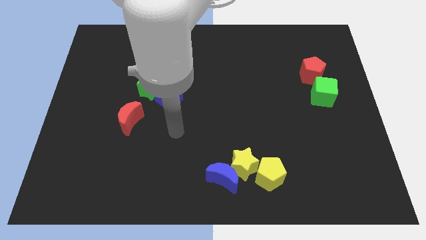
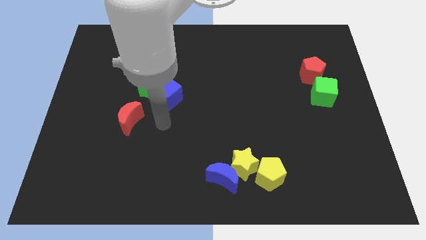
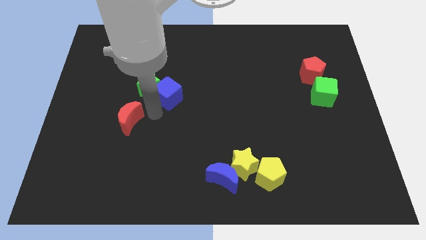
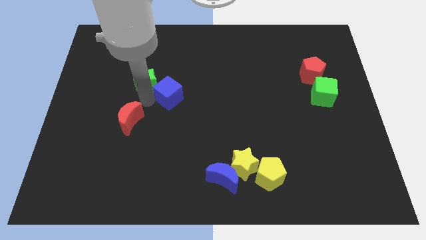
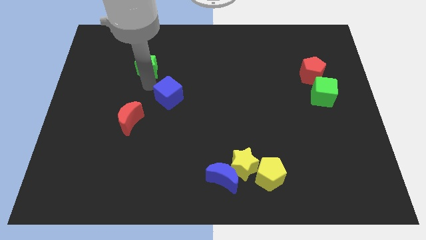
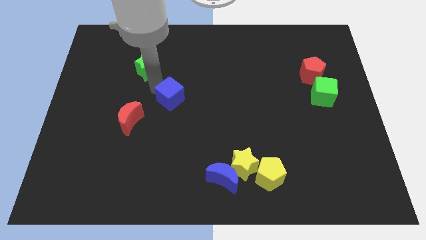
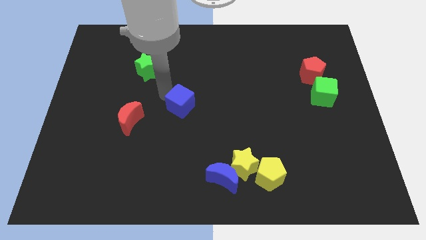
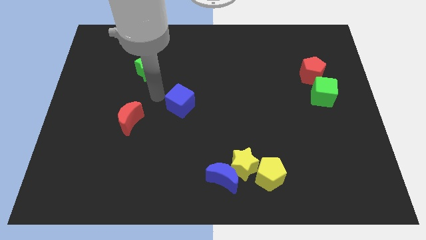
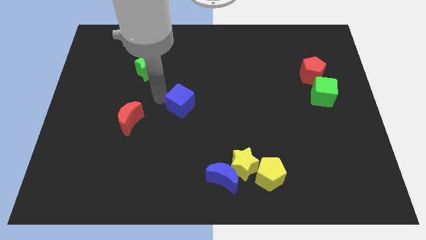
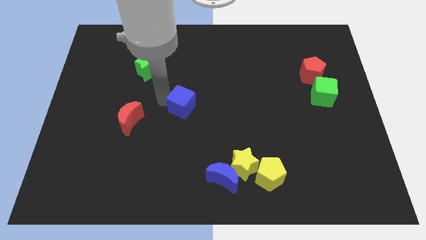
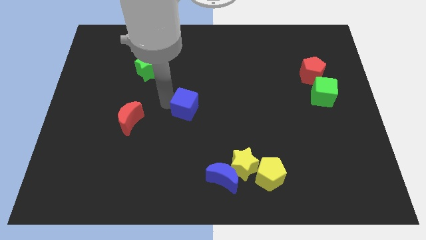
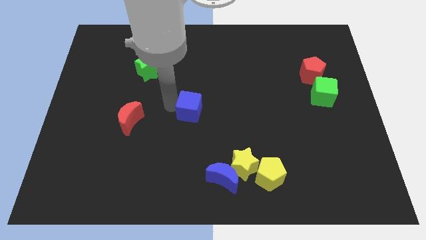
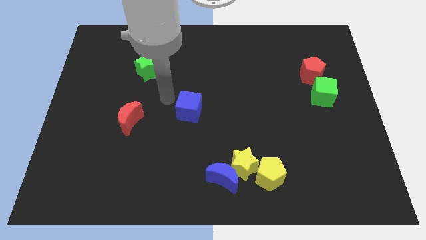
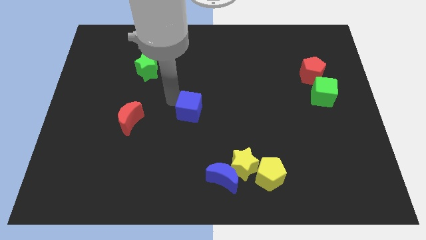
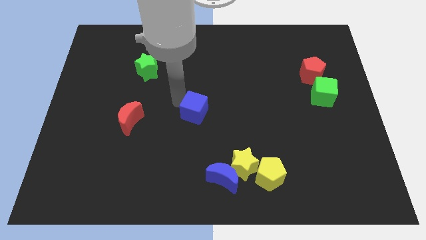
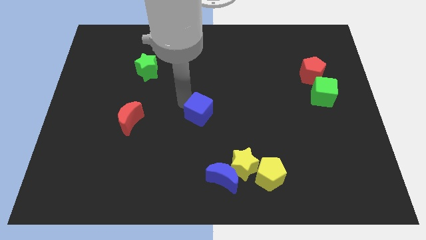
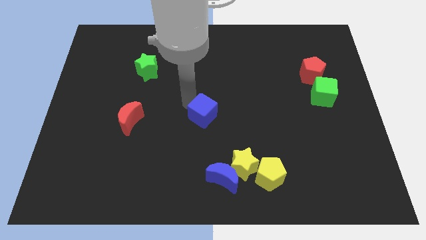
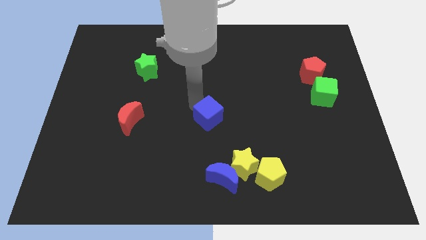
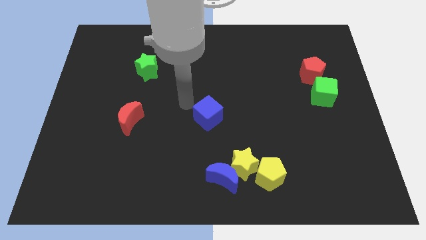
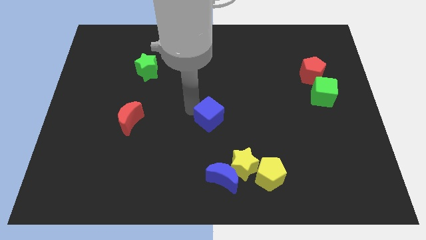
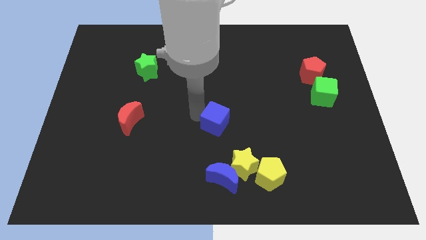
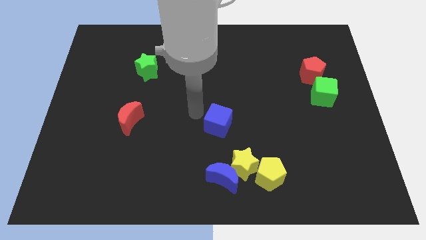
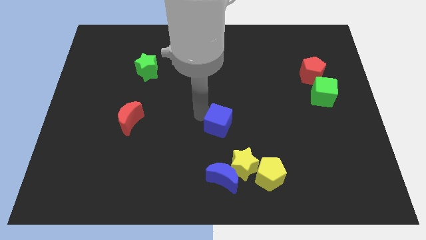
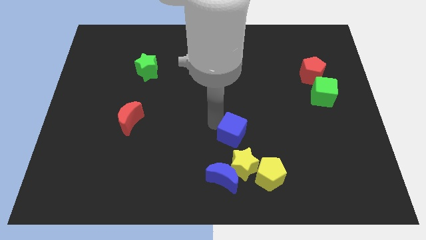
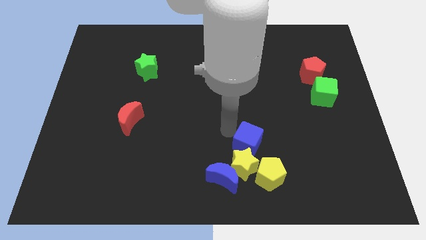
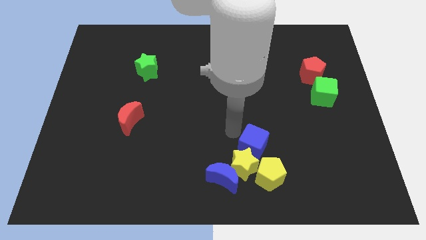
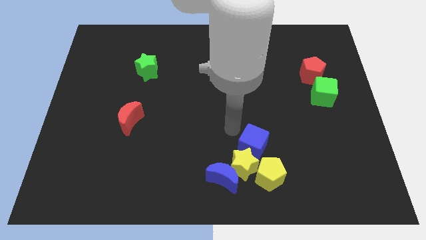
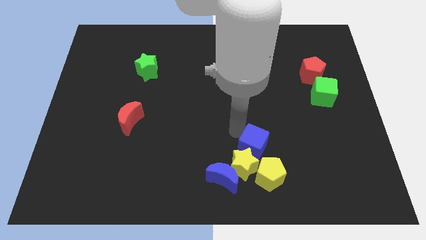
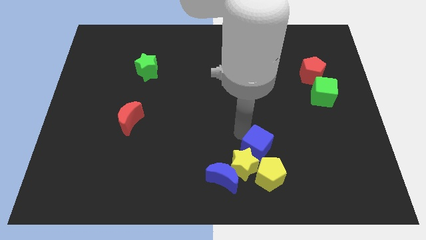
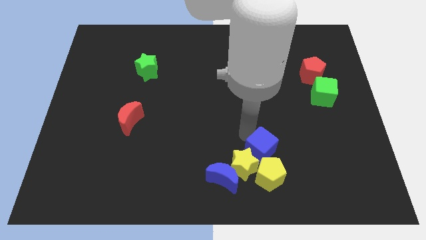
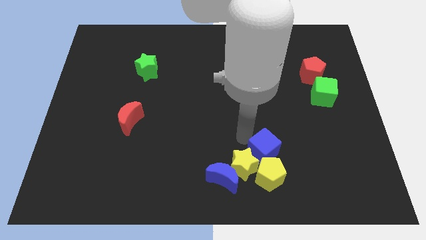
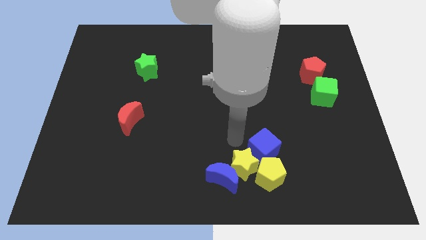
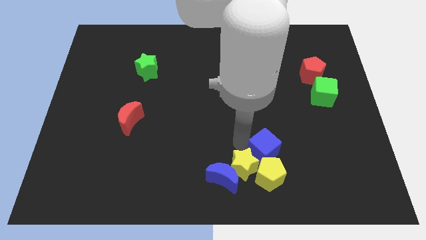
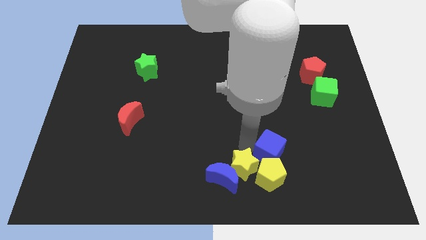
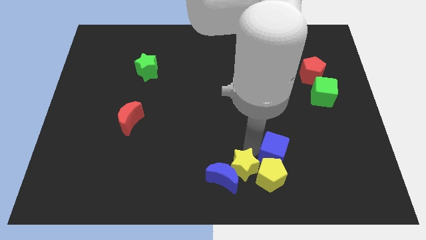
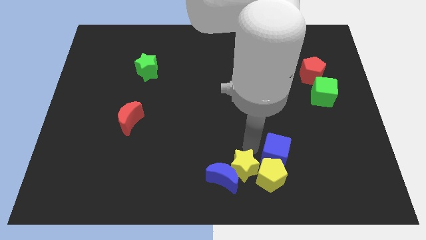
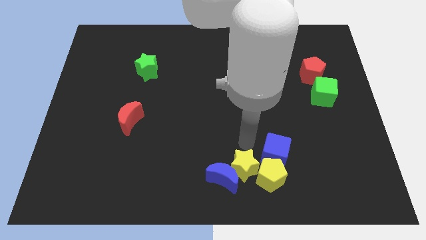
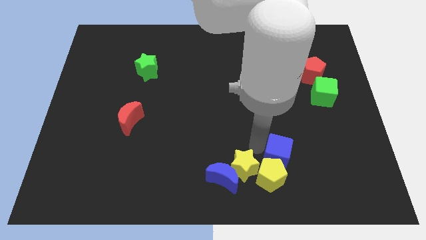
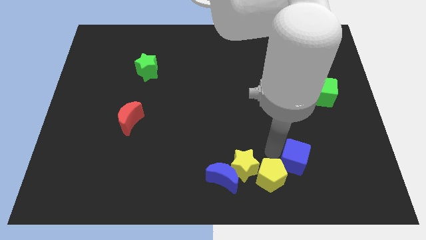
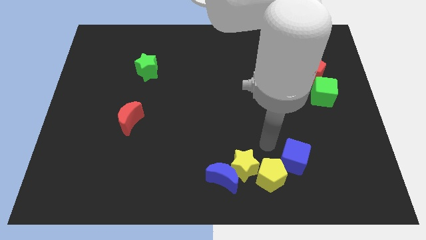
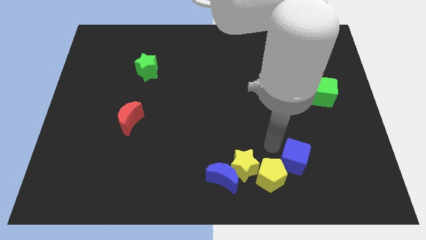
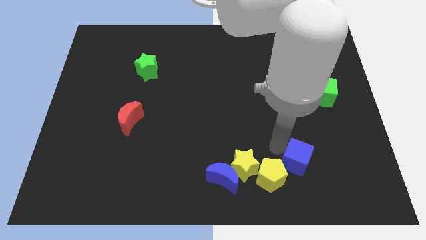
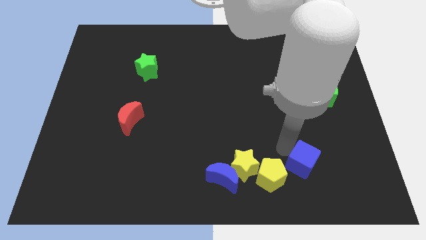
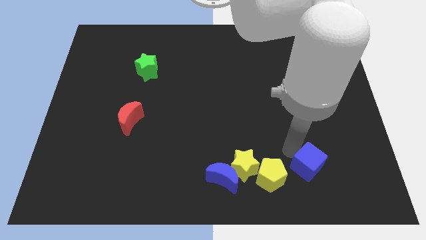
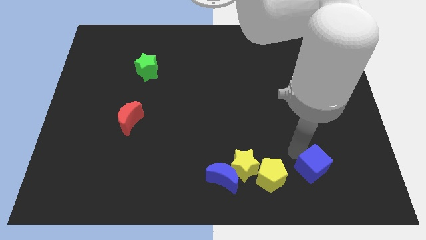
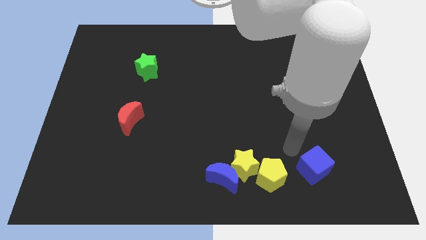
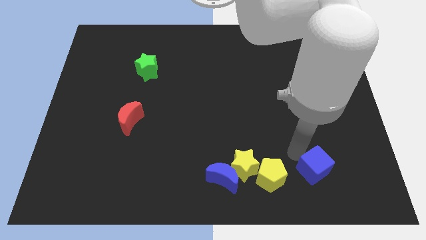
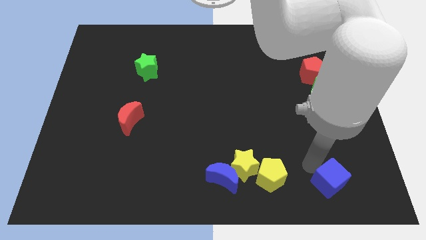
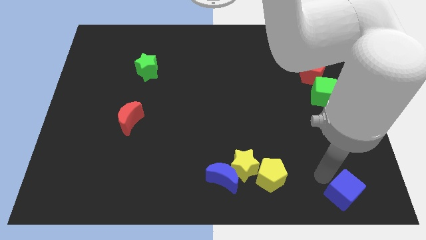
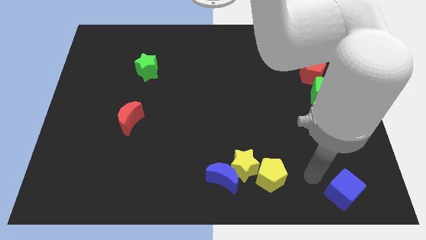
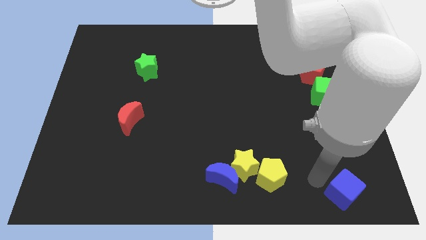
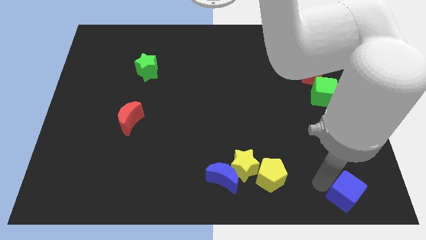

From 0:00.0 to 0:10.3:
move the blue cube to the bottom right corner

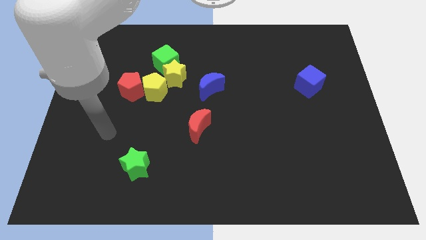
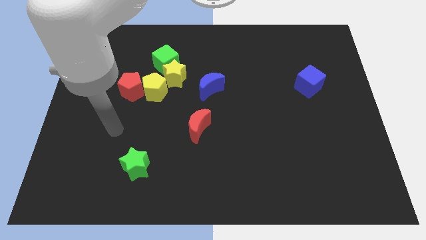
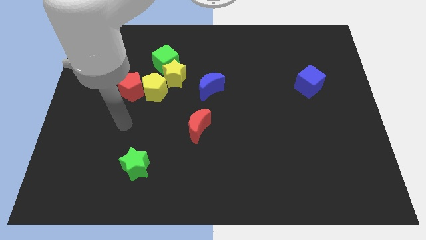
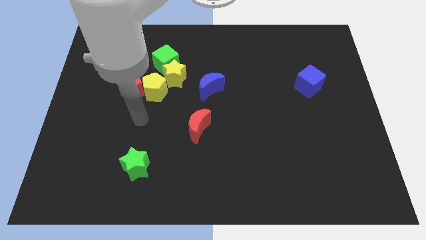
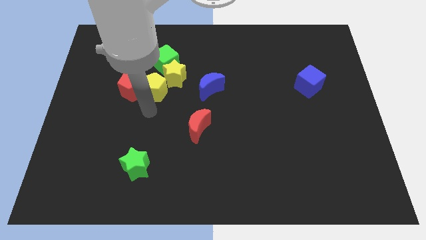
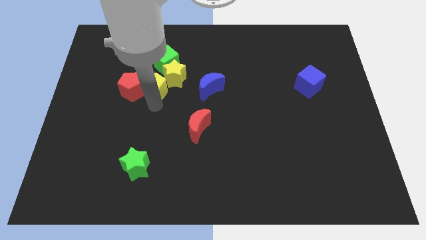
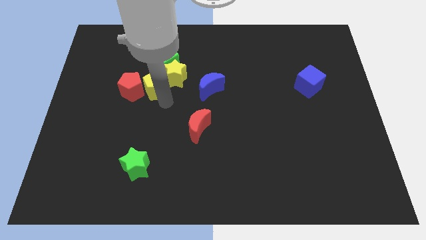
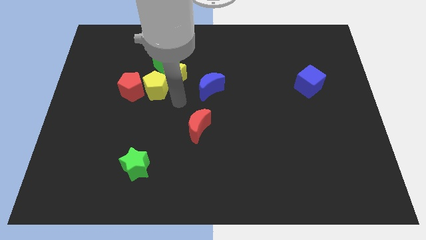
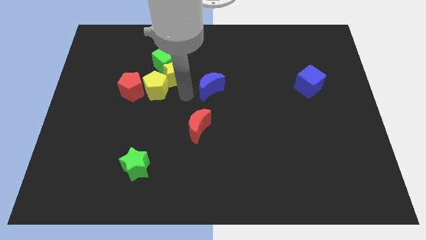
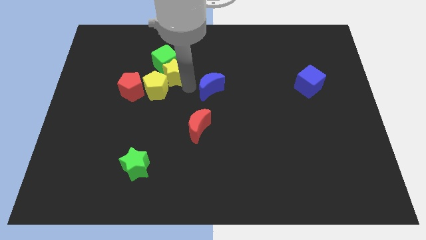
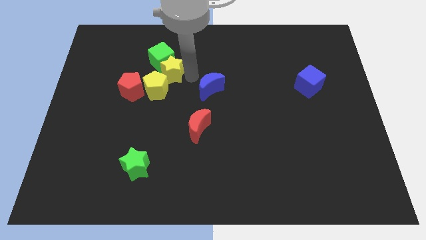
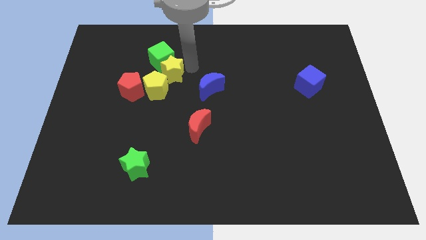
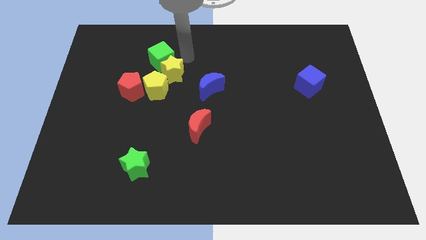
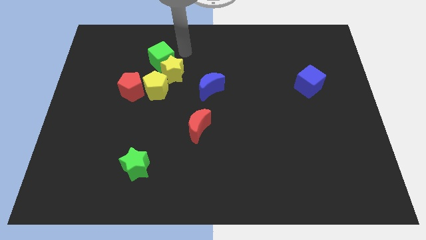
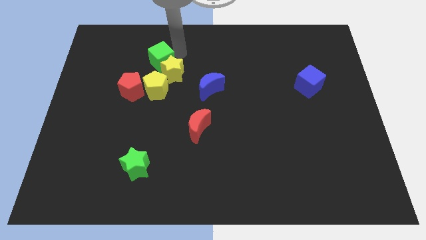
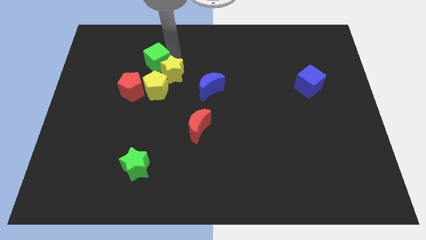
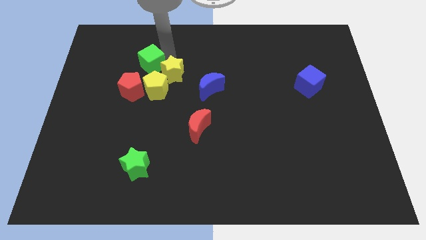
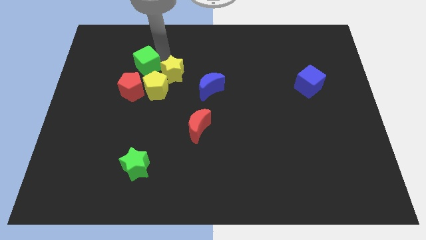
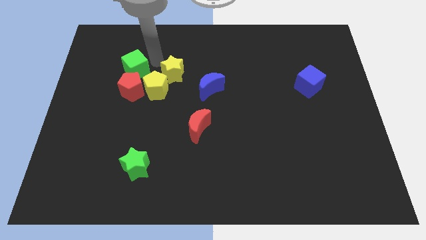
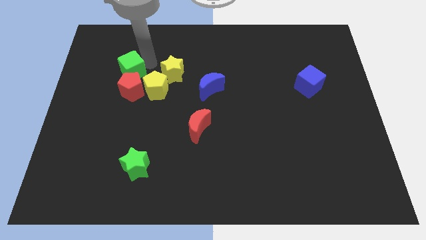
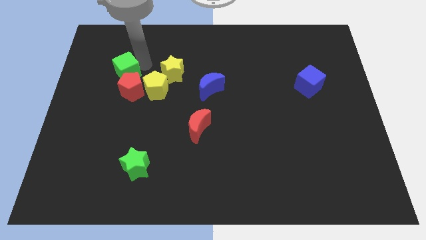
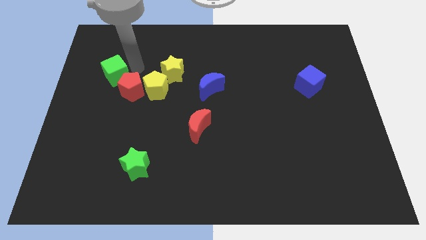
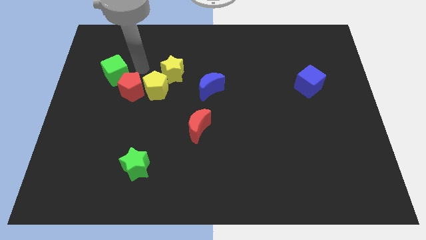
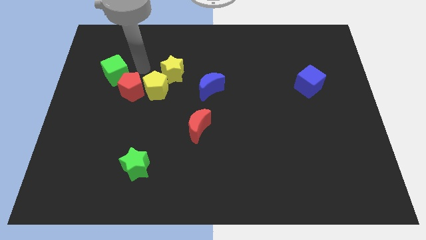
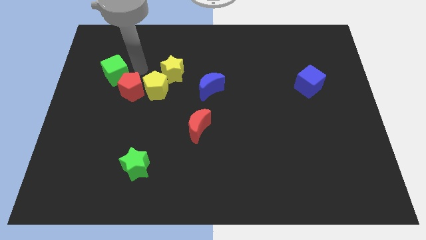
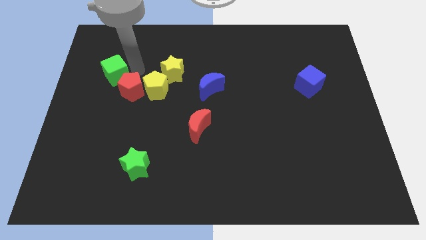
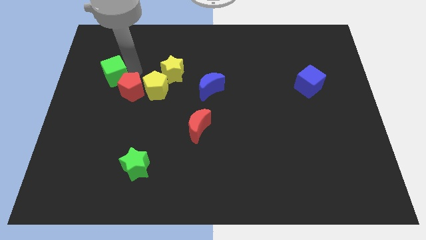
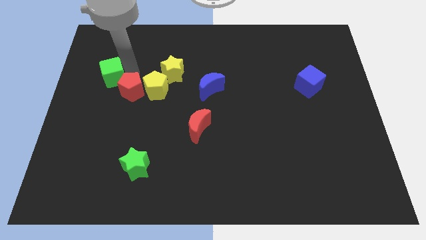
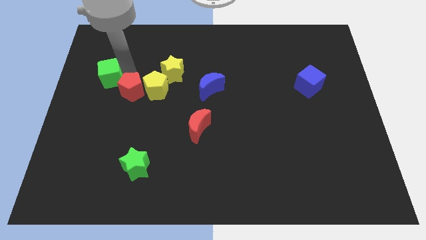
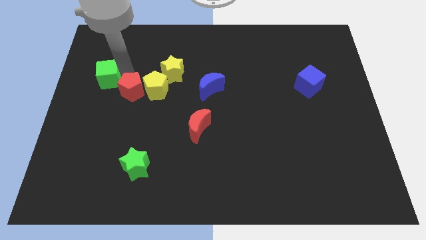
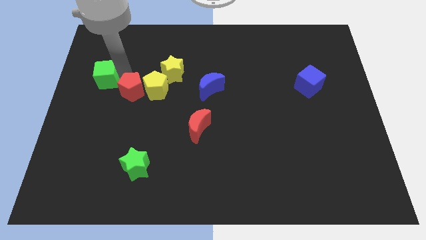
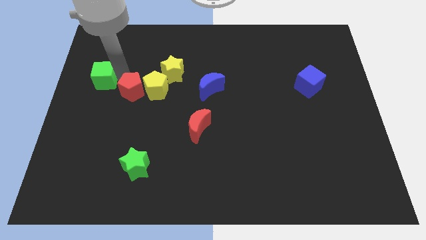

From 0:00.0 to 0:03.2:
put the green cube to the left side of the board
